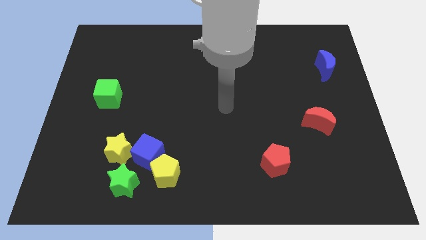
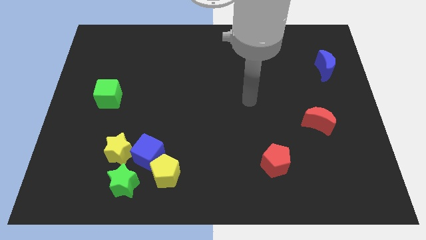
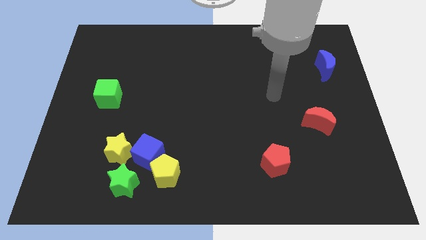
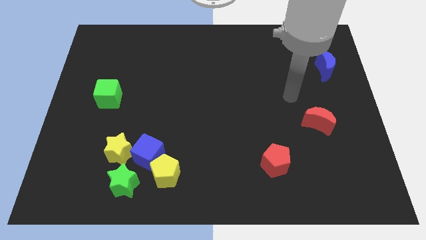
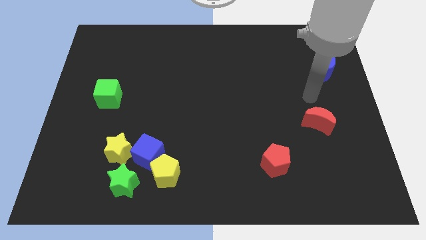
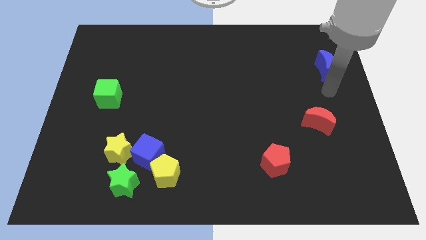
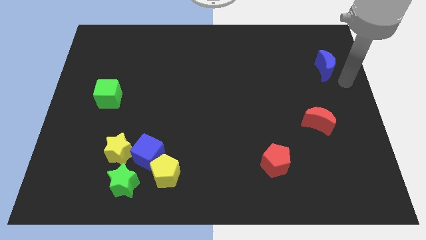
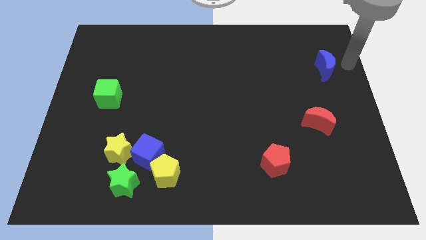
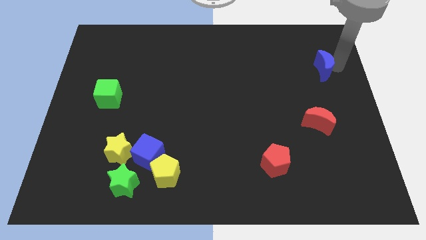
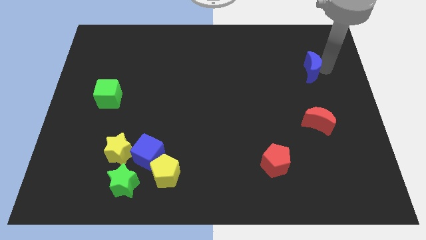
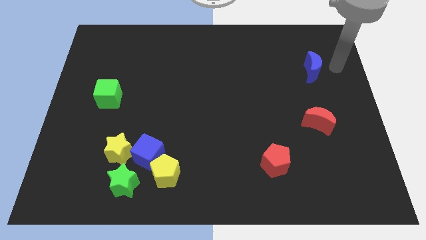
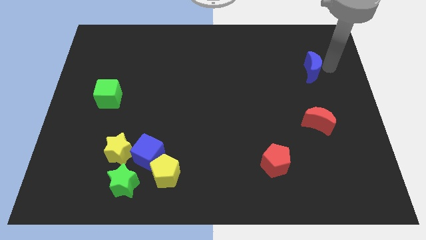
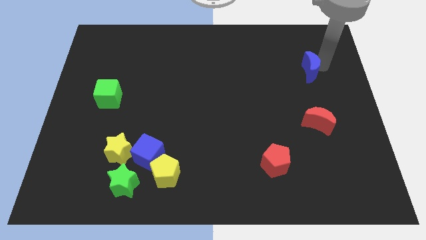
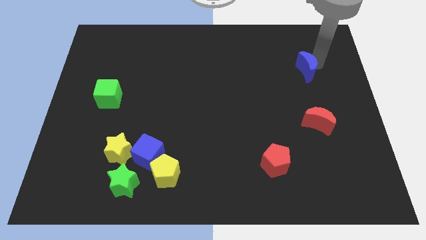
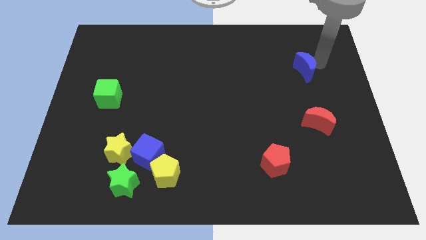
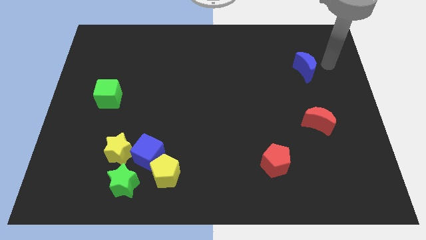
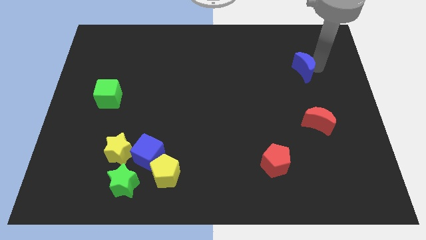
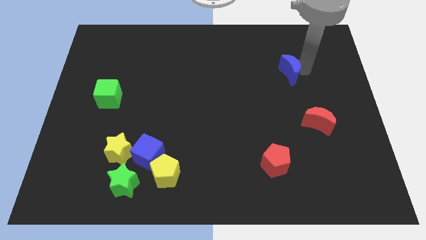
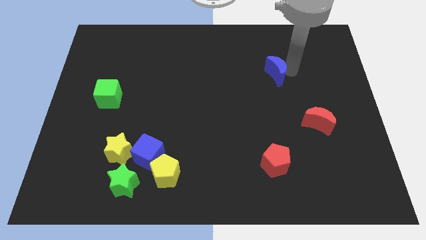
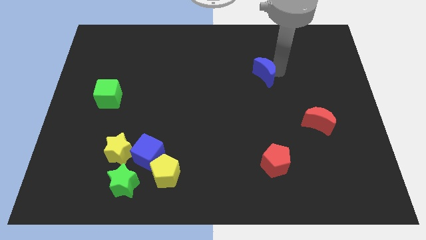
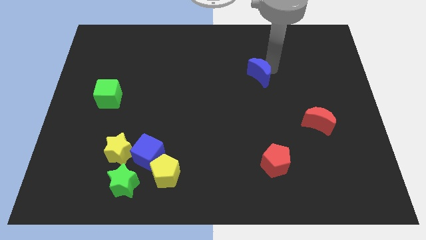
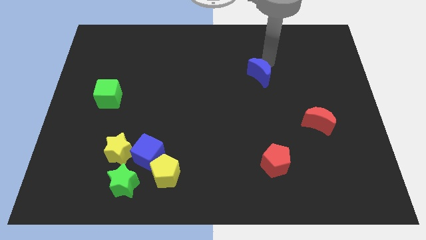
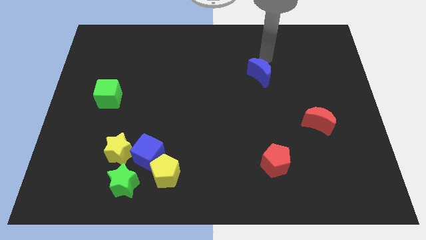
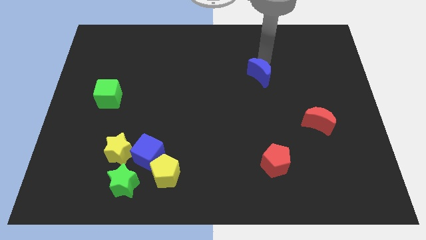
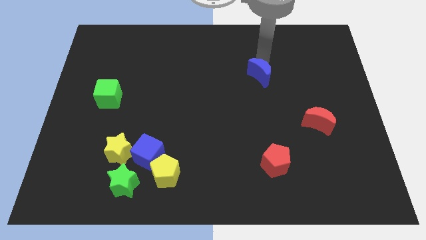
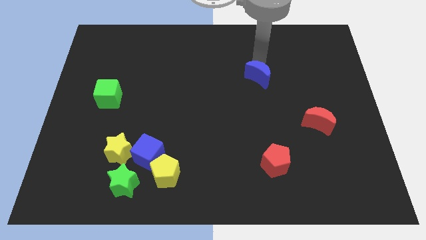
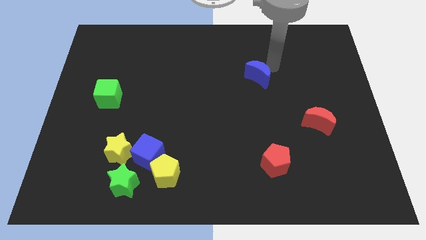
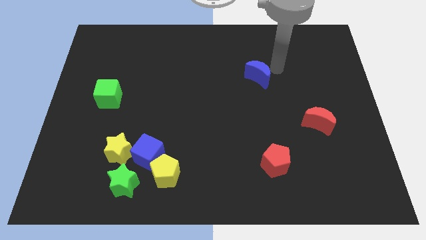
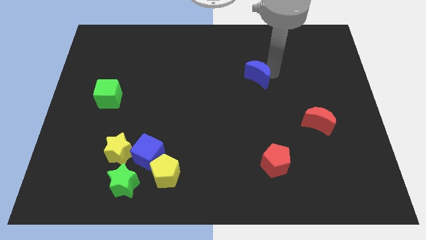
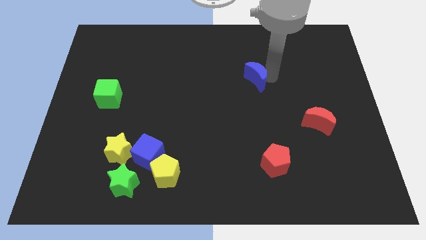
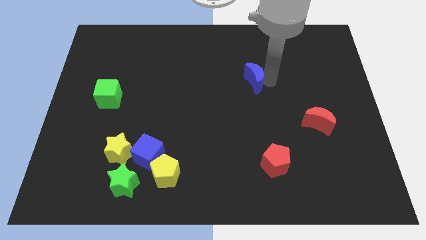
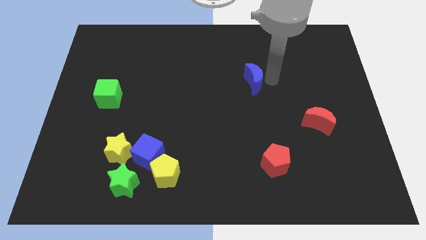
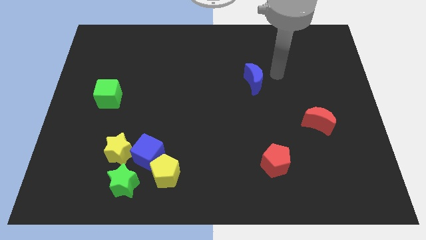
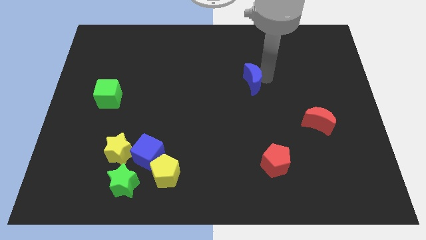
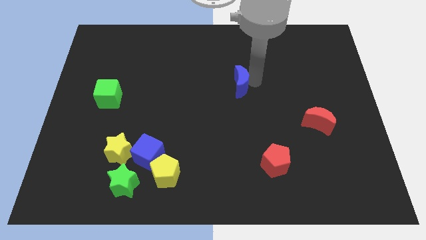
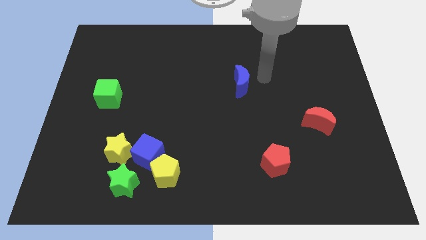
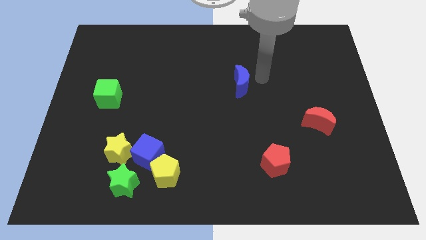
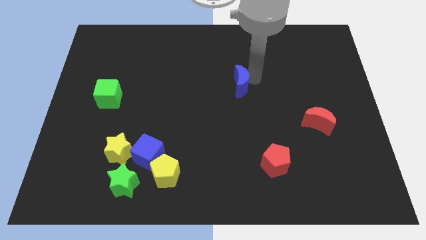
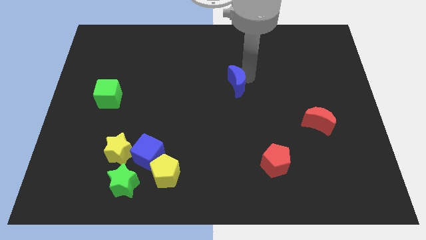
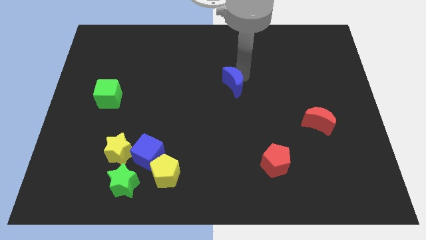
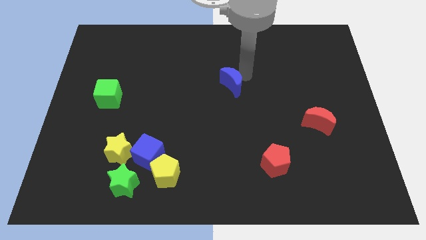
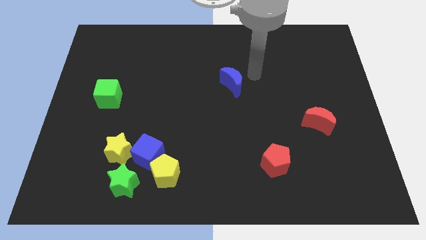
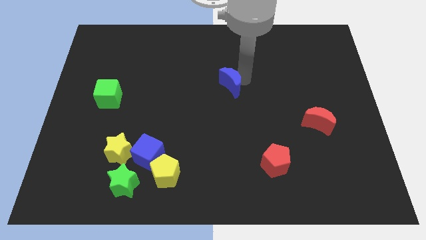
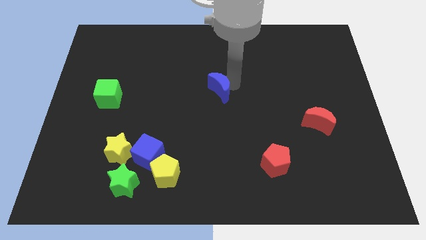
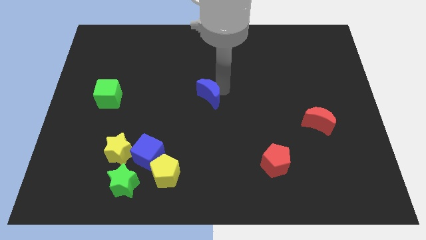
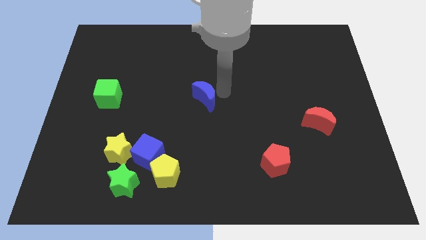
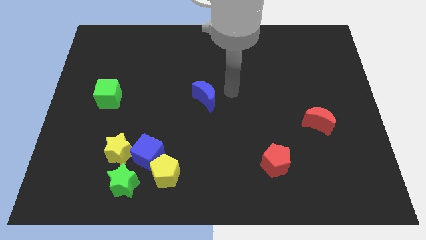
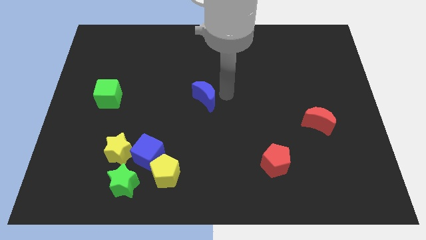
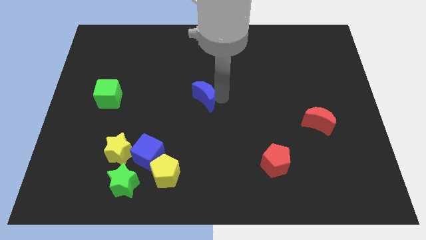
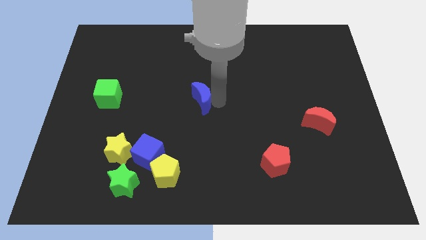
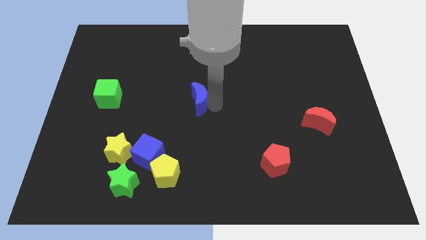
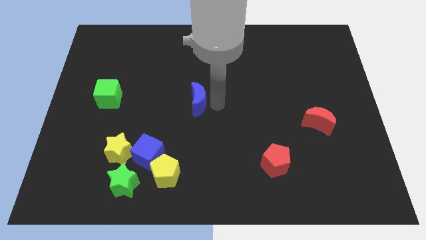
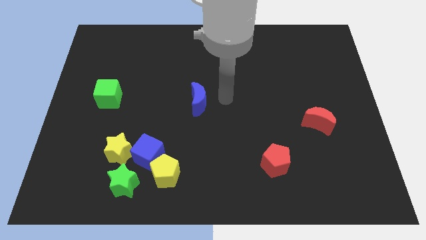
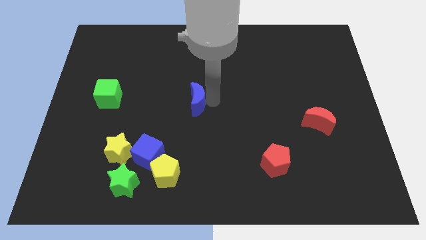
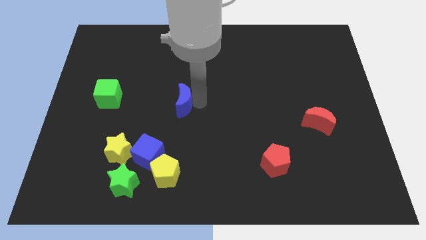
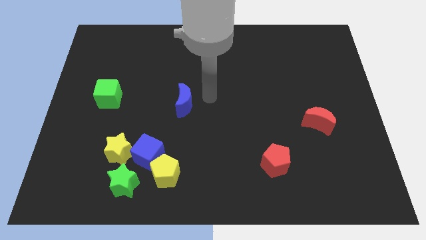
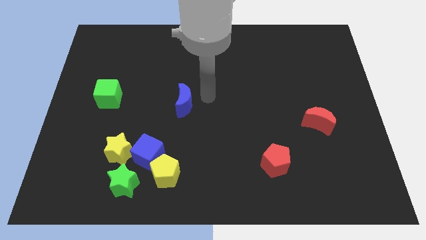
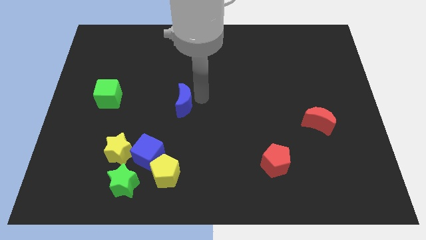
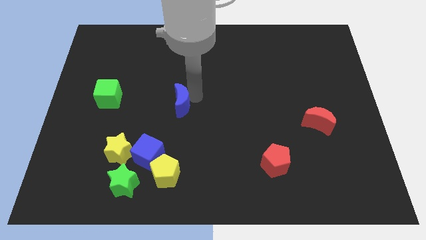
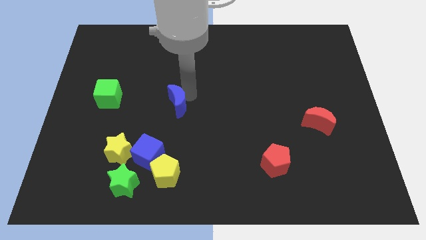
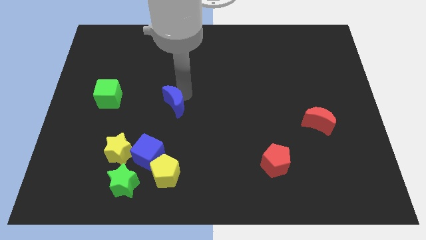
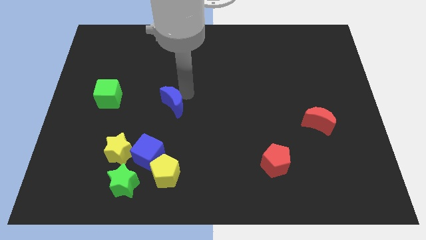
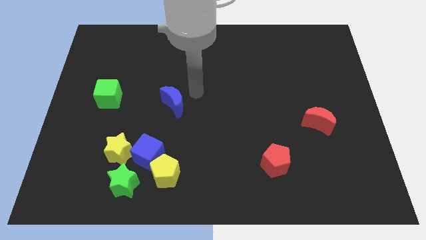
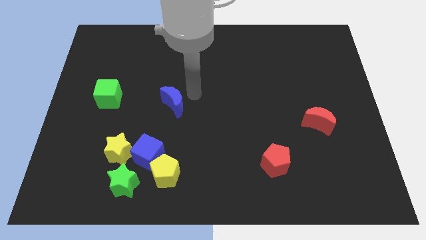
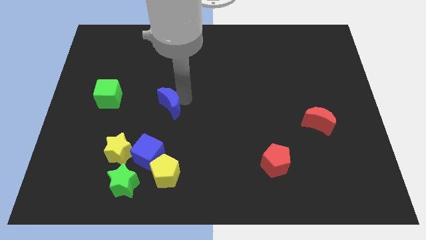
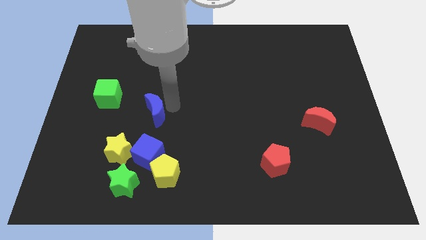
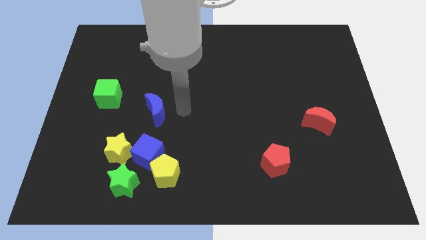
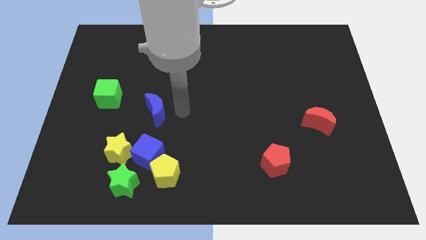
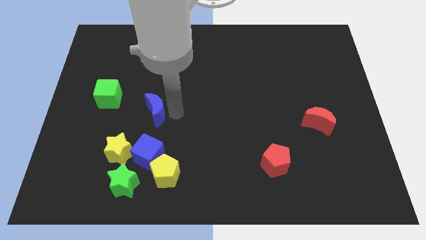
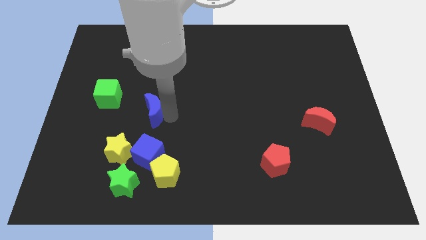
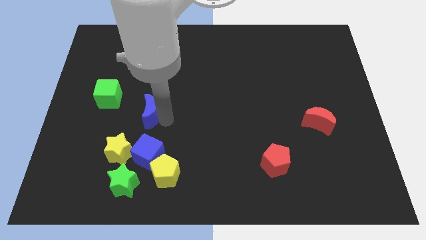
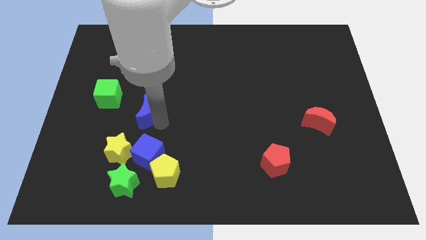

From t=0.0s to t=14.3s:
put the blue moon above the yellow star

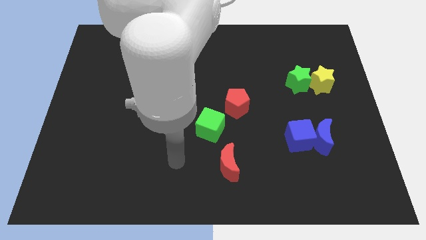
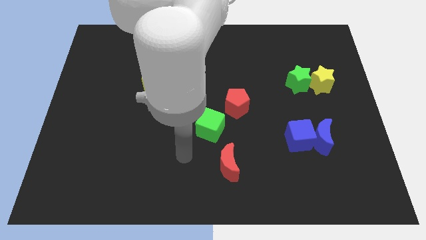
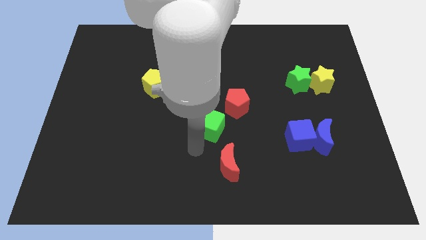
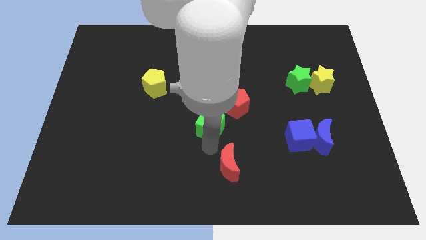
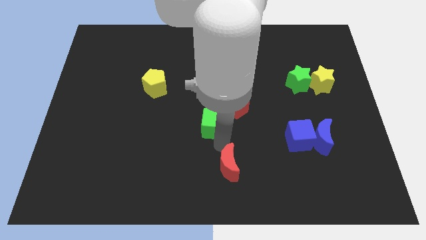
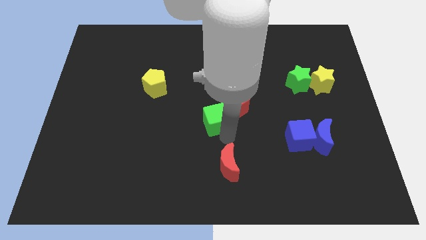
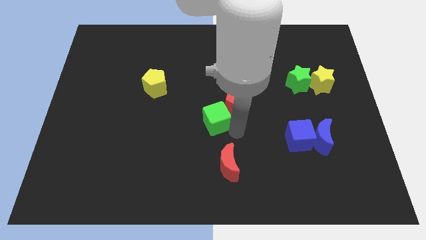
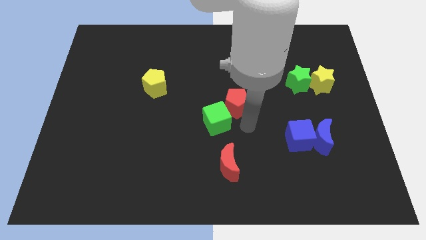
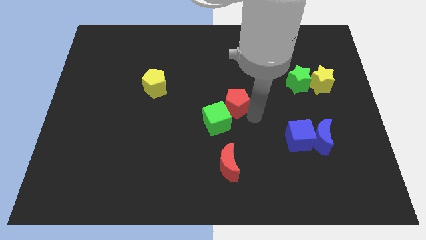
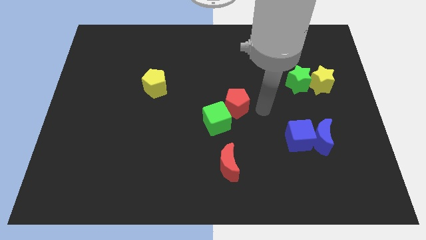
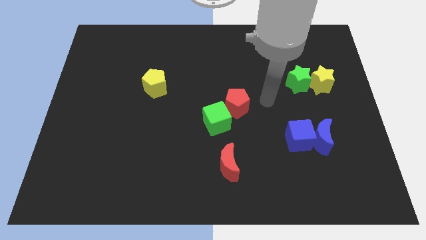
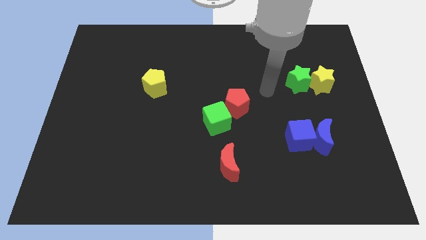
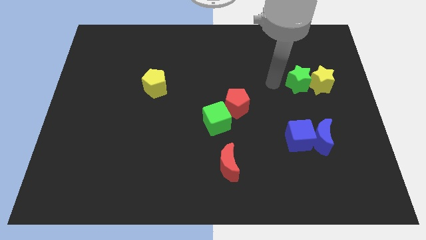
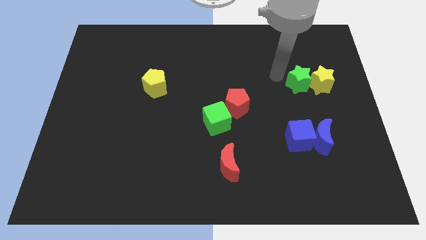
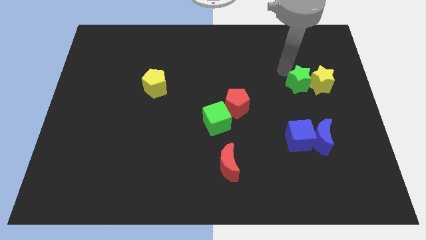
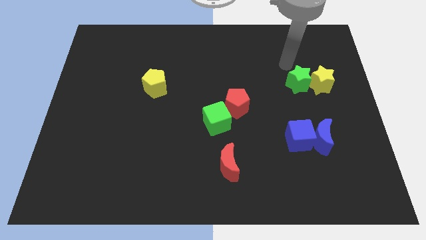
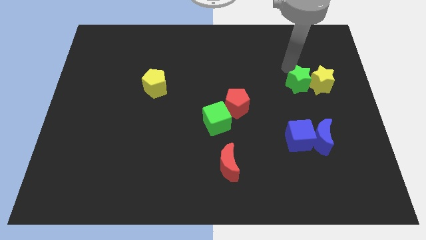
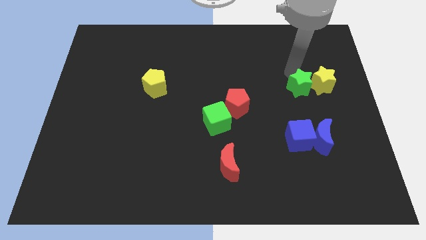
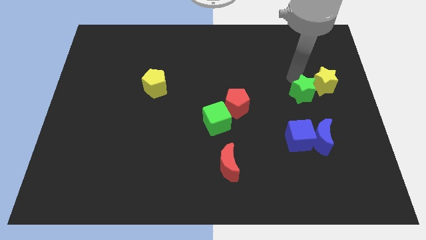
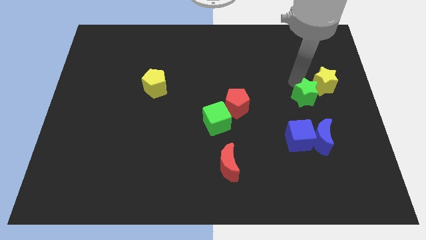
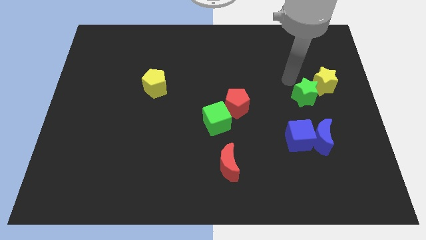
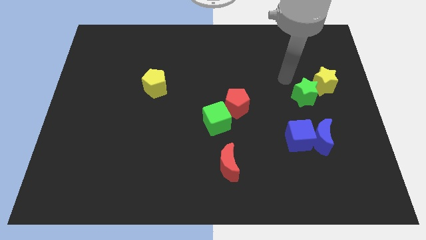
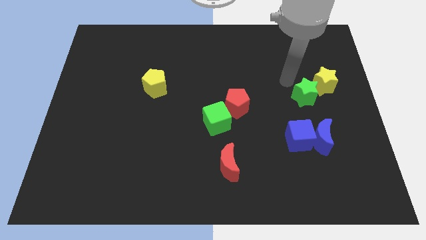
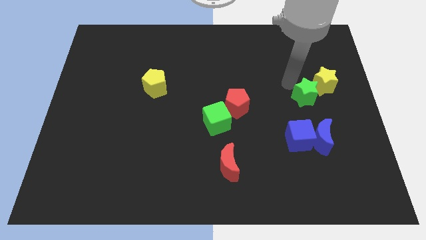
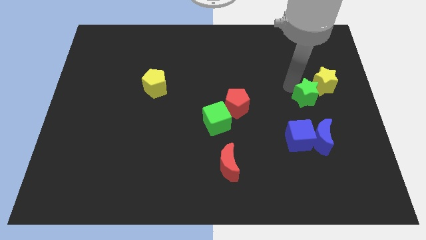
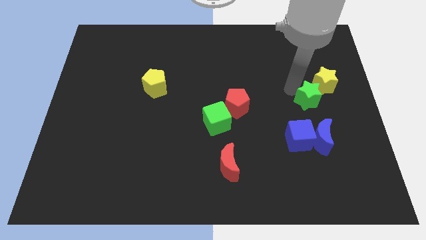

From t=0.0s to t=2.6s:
move the green star below the yellow star
